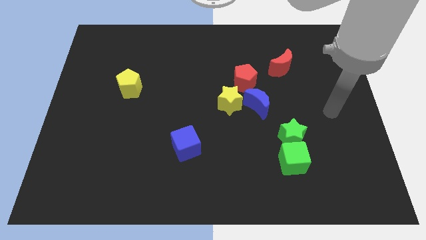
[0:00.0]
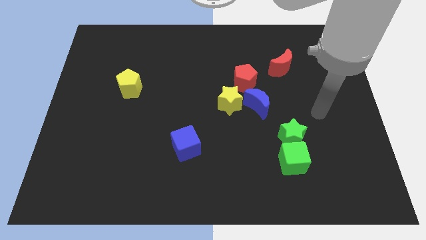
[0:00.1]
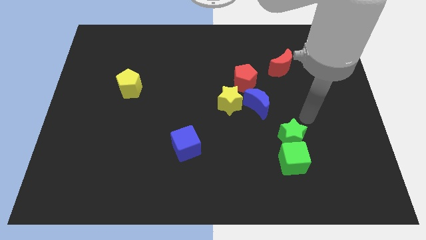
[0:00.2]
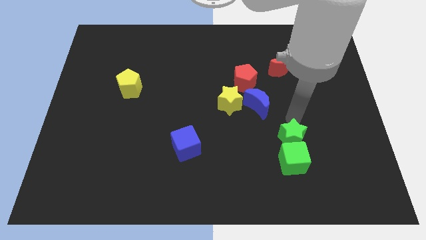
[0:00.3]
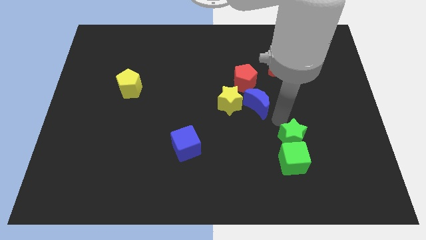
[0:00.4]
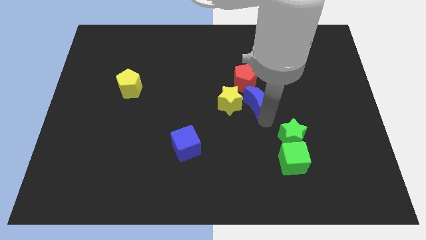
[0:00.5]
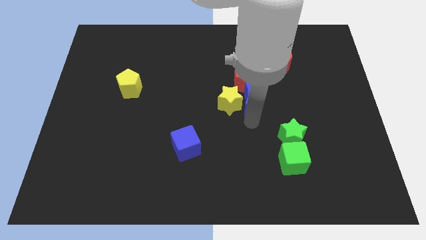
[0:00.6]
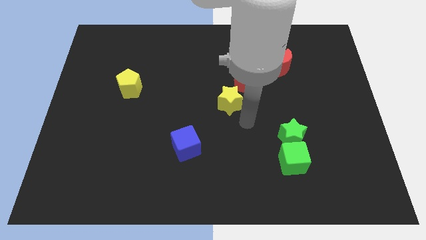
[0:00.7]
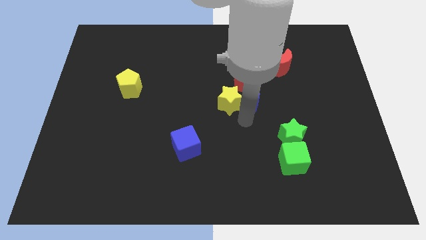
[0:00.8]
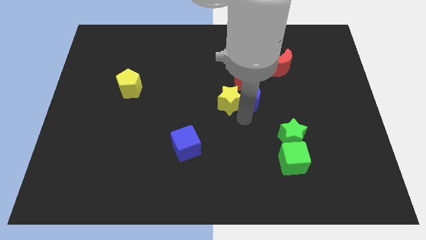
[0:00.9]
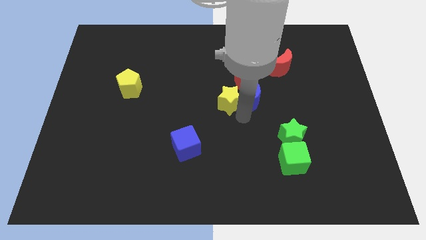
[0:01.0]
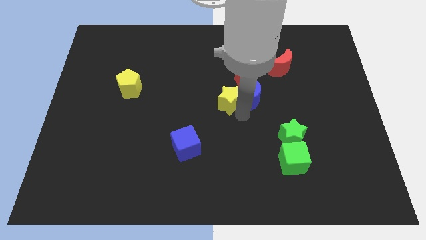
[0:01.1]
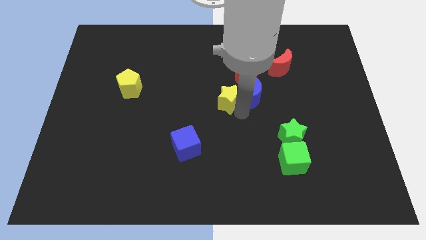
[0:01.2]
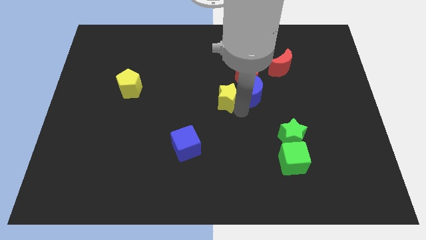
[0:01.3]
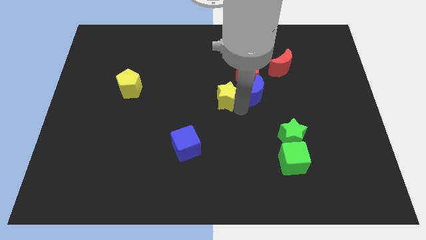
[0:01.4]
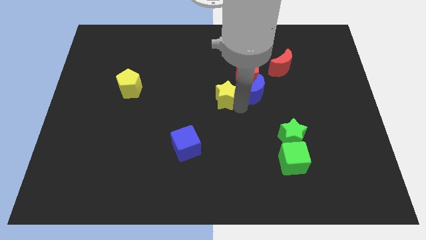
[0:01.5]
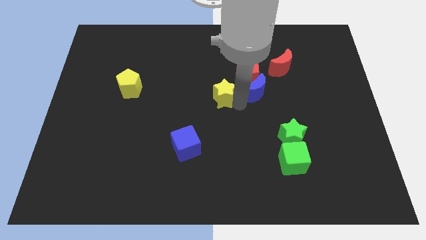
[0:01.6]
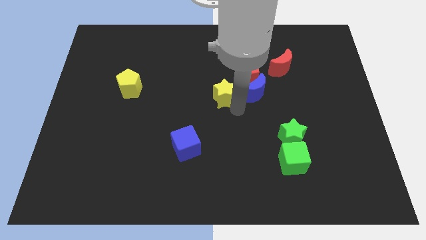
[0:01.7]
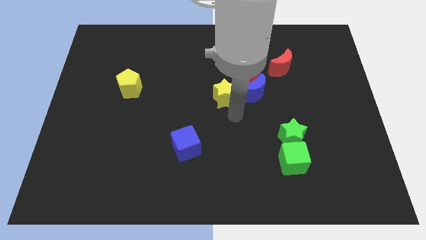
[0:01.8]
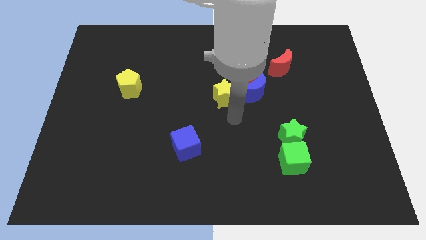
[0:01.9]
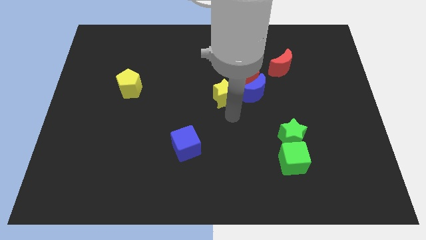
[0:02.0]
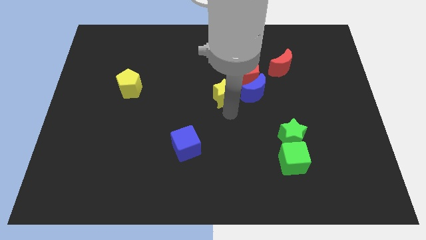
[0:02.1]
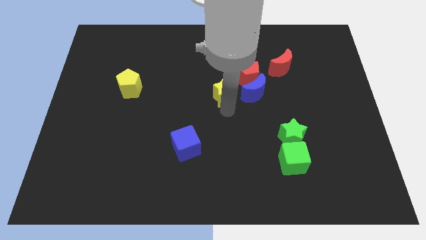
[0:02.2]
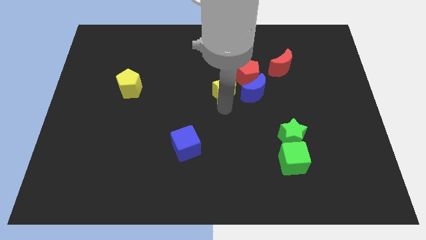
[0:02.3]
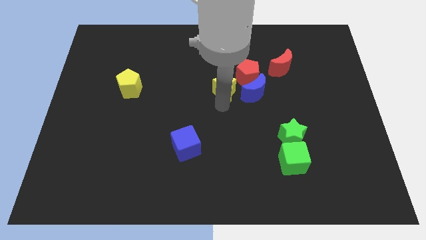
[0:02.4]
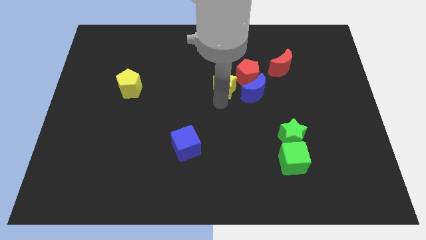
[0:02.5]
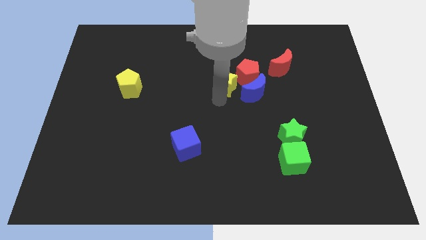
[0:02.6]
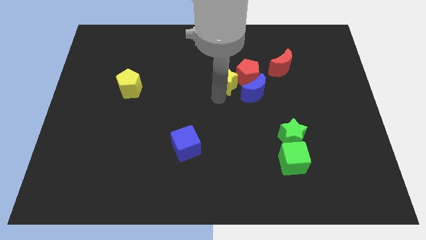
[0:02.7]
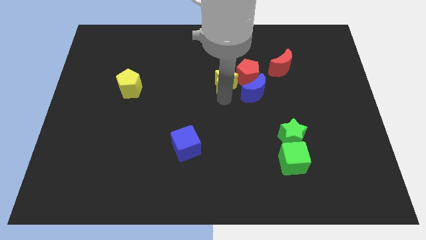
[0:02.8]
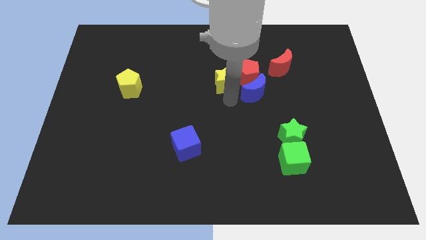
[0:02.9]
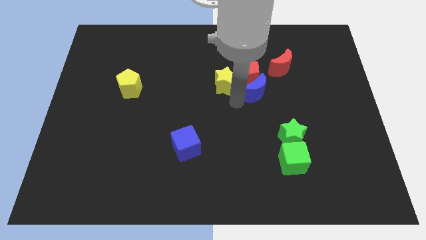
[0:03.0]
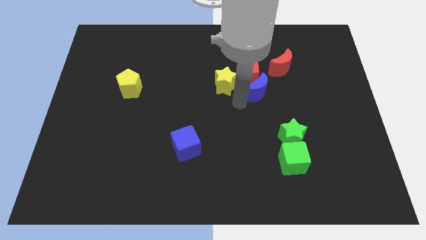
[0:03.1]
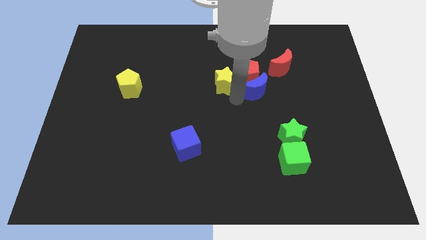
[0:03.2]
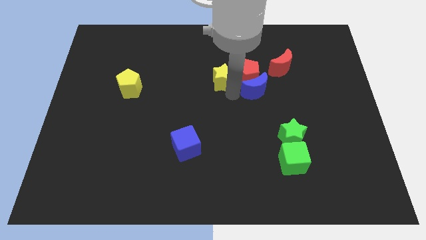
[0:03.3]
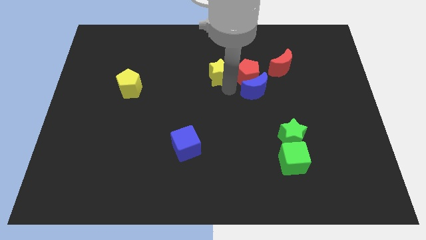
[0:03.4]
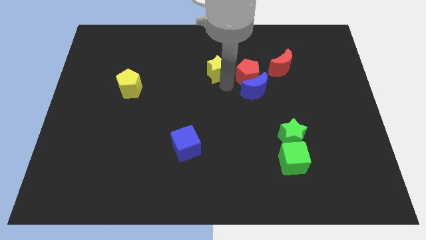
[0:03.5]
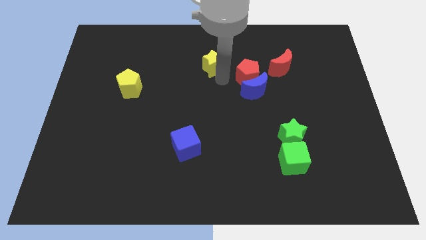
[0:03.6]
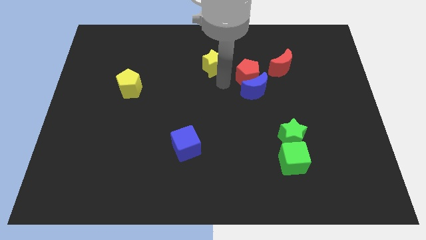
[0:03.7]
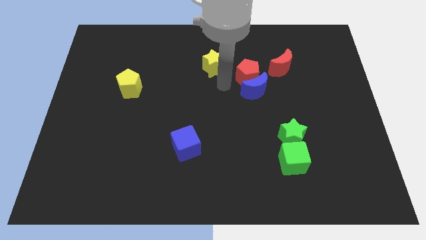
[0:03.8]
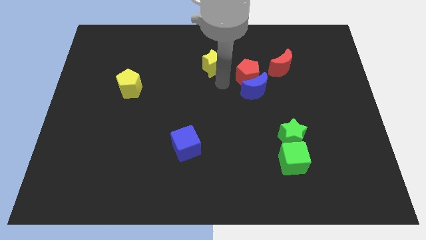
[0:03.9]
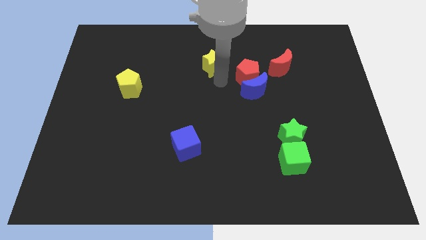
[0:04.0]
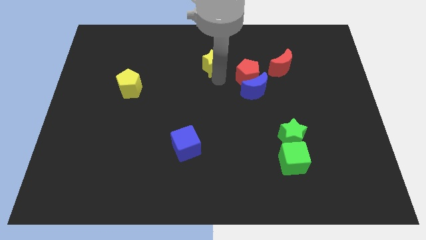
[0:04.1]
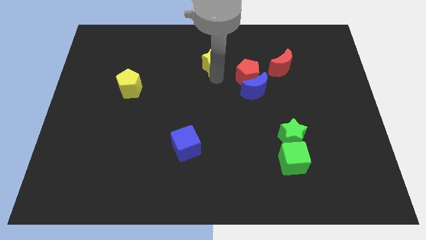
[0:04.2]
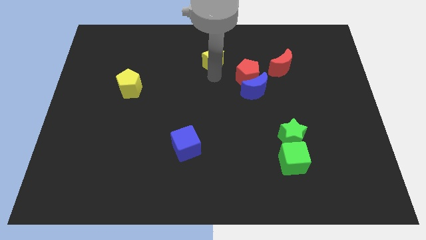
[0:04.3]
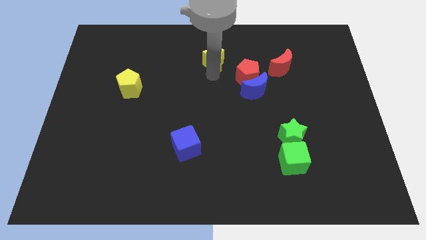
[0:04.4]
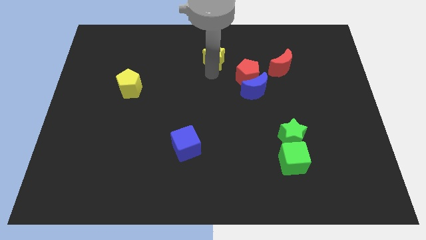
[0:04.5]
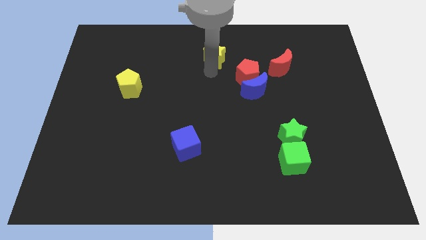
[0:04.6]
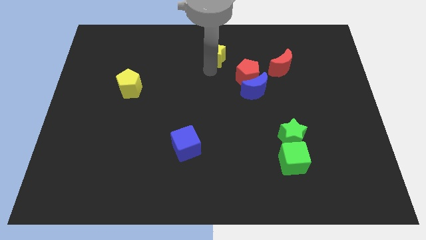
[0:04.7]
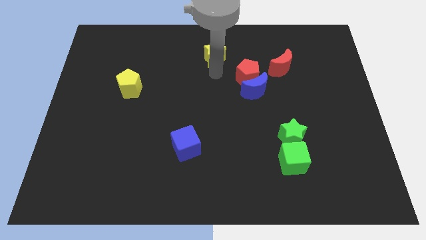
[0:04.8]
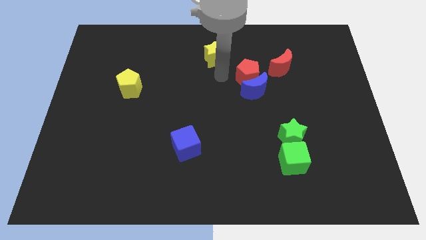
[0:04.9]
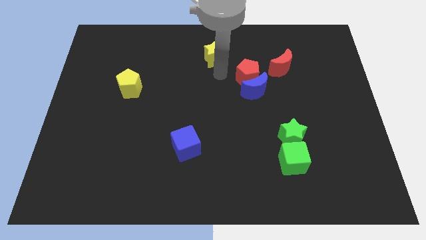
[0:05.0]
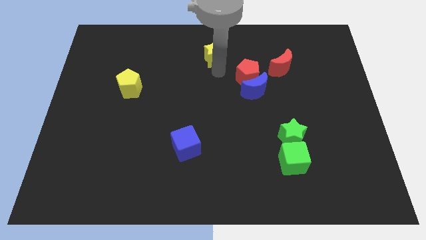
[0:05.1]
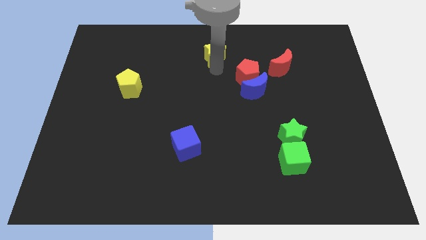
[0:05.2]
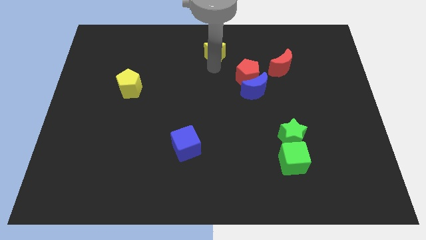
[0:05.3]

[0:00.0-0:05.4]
put the yellow star to the top

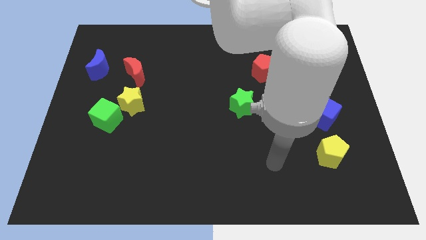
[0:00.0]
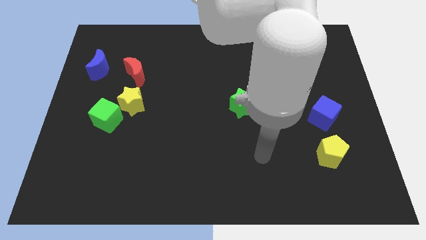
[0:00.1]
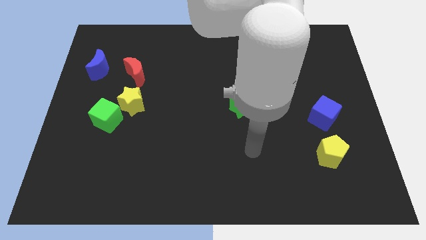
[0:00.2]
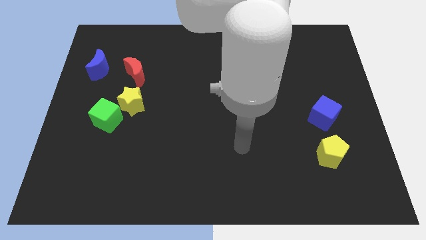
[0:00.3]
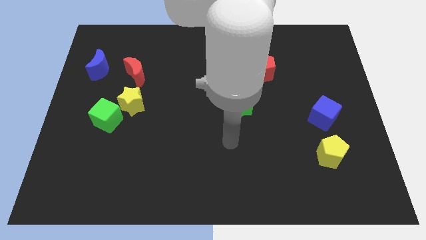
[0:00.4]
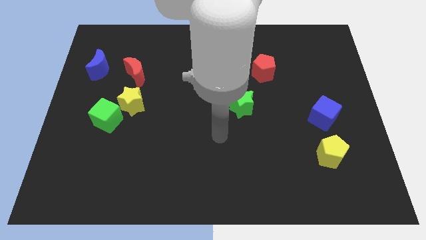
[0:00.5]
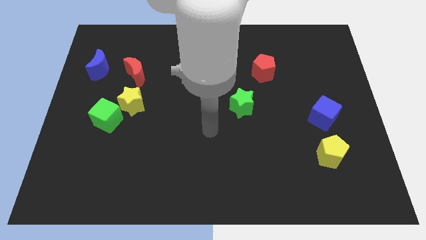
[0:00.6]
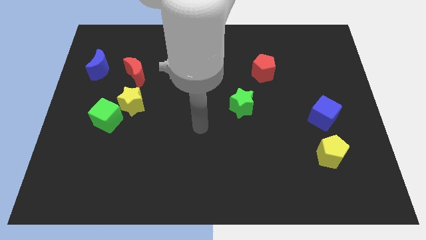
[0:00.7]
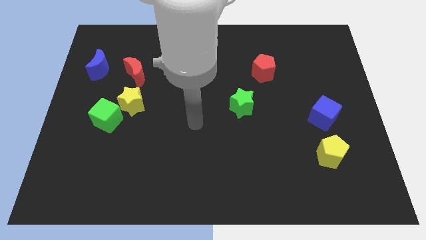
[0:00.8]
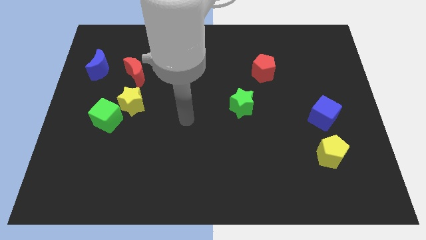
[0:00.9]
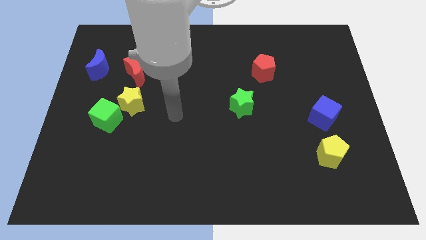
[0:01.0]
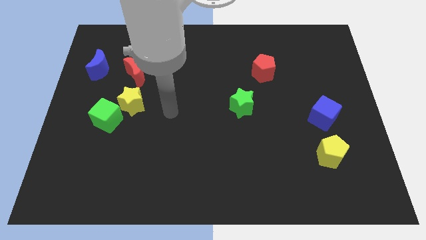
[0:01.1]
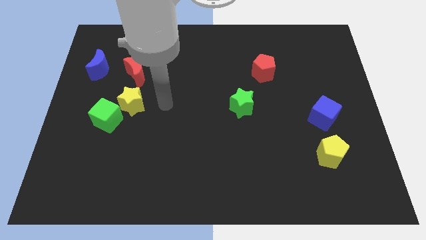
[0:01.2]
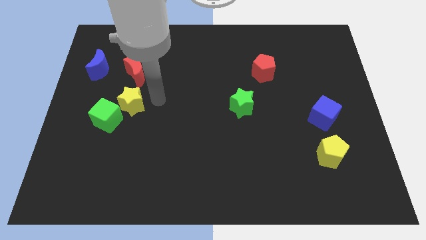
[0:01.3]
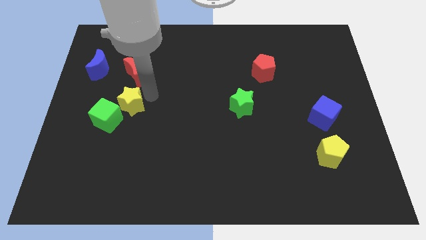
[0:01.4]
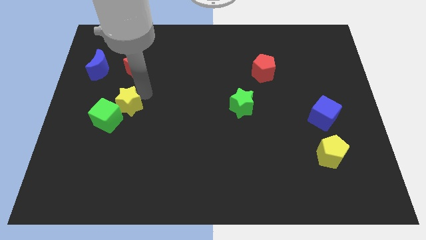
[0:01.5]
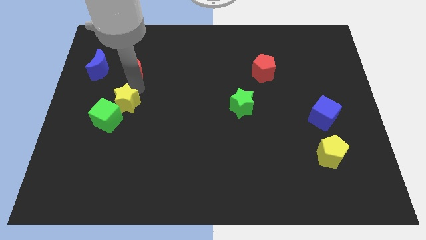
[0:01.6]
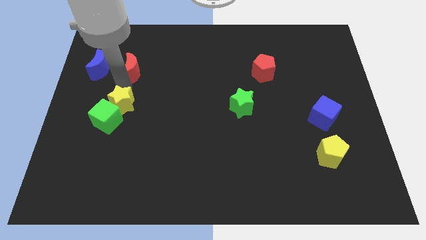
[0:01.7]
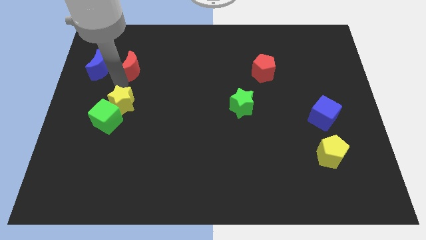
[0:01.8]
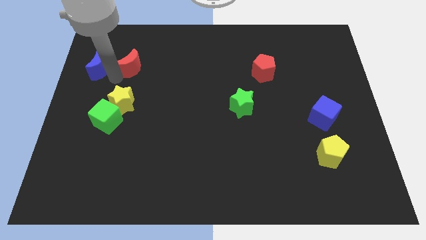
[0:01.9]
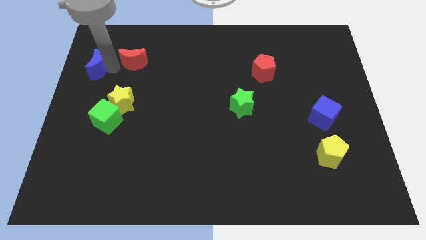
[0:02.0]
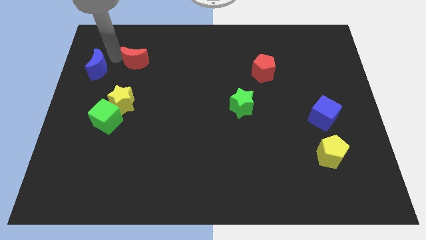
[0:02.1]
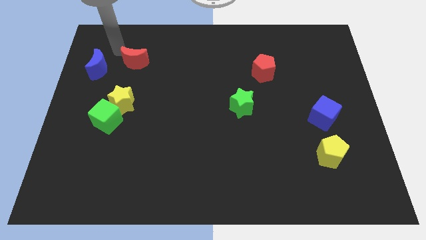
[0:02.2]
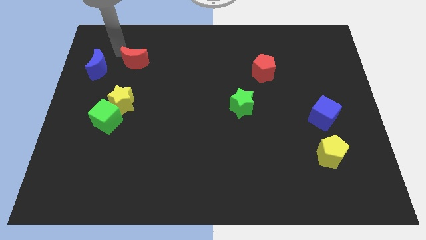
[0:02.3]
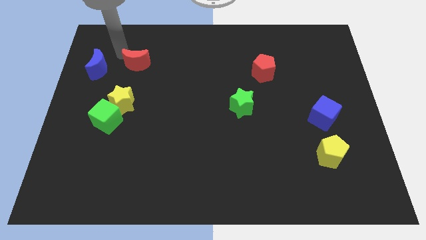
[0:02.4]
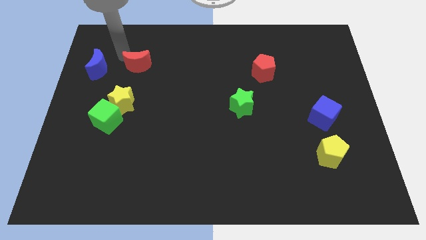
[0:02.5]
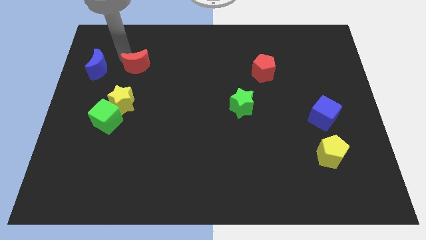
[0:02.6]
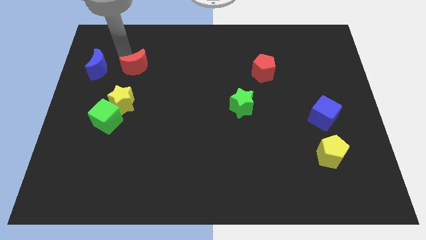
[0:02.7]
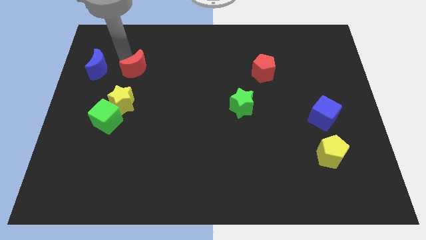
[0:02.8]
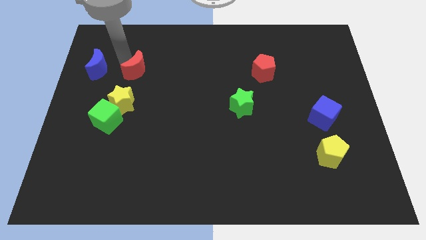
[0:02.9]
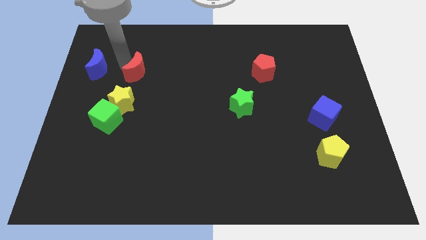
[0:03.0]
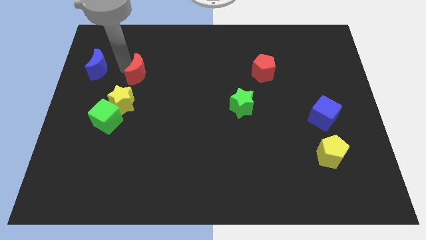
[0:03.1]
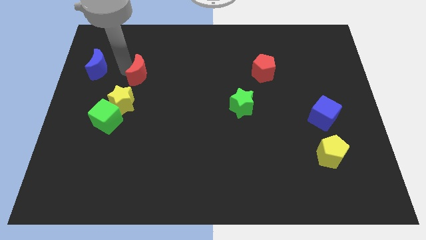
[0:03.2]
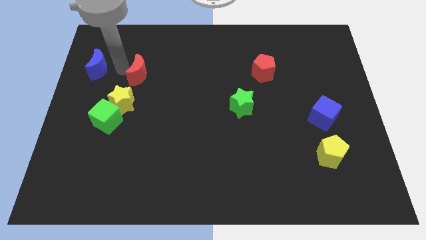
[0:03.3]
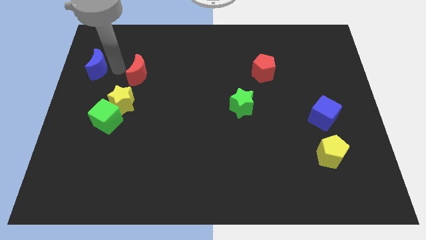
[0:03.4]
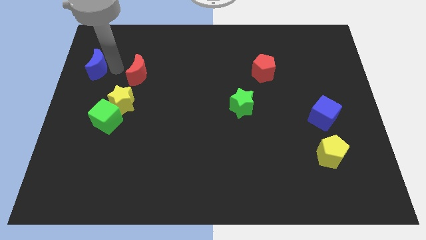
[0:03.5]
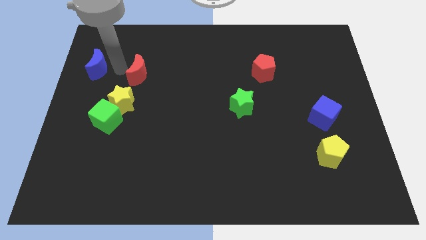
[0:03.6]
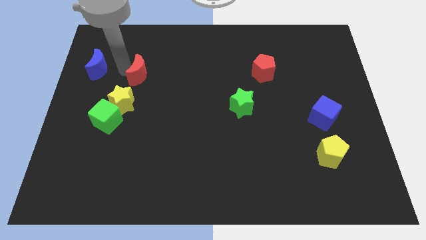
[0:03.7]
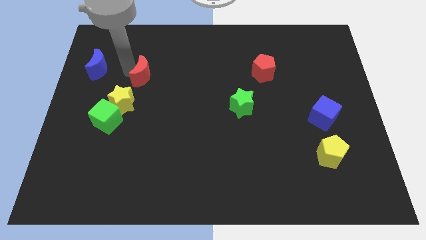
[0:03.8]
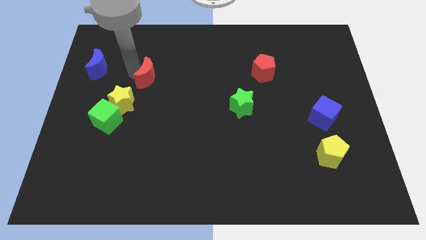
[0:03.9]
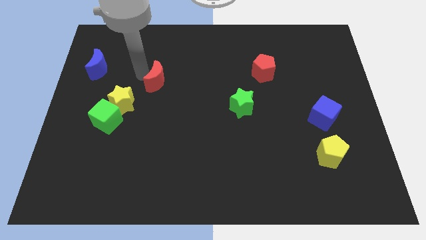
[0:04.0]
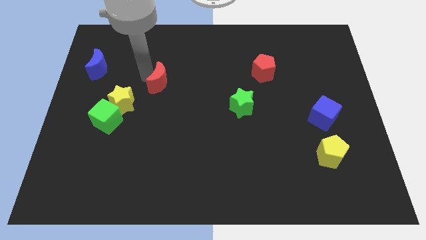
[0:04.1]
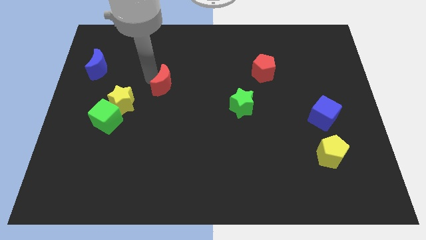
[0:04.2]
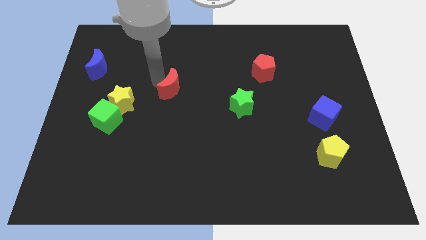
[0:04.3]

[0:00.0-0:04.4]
push the red moon to the center of the board
